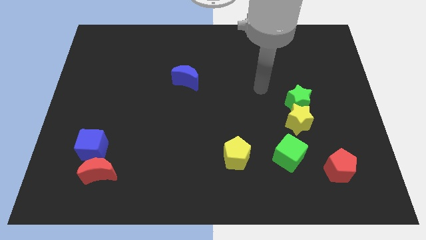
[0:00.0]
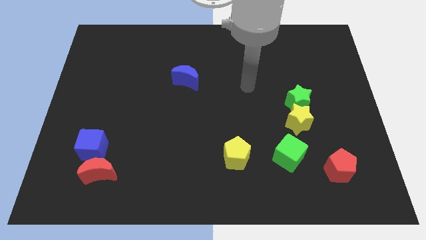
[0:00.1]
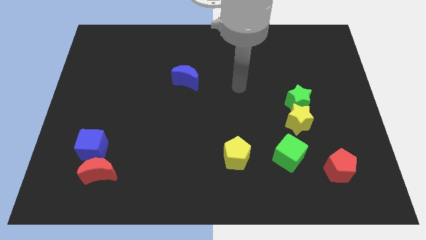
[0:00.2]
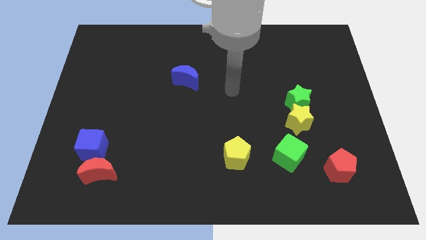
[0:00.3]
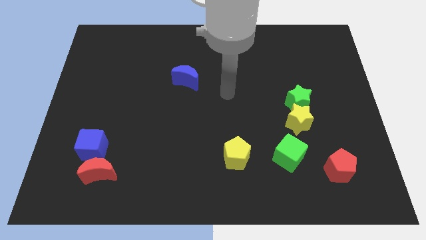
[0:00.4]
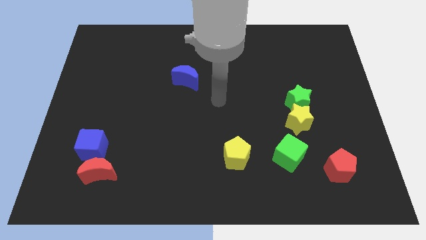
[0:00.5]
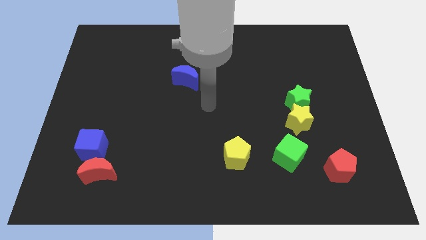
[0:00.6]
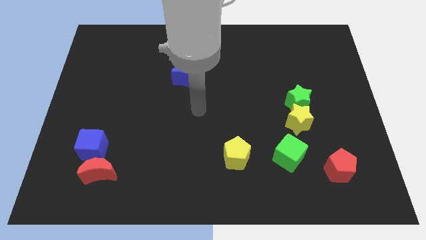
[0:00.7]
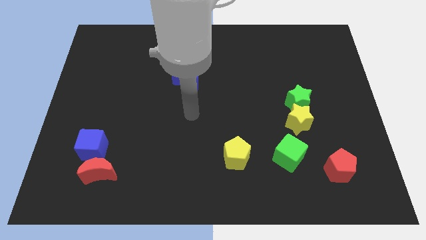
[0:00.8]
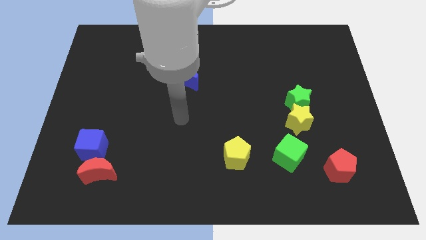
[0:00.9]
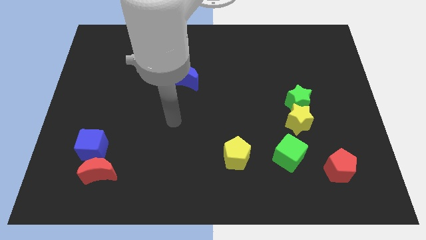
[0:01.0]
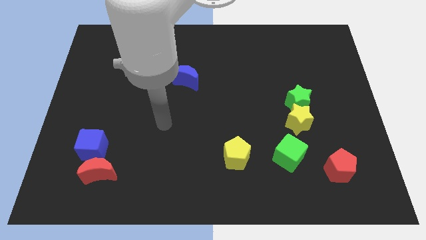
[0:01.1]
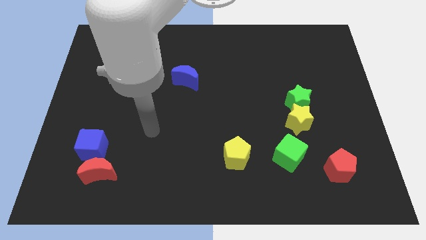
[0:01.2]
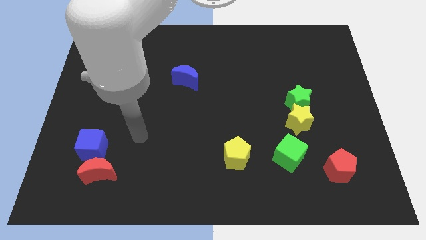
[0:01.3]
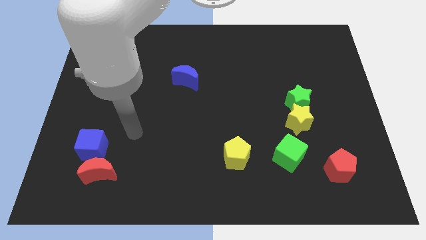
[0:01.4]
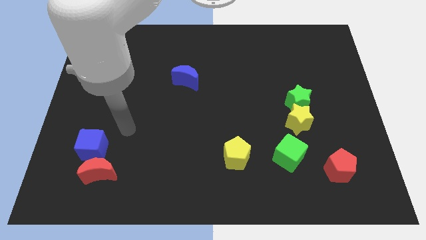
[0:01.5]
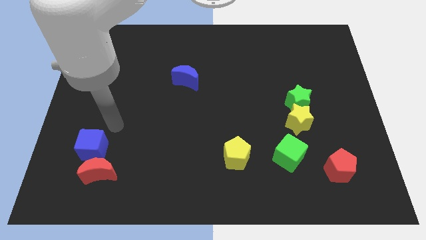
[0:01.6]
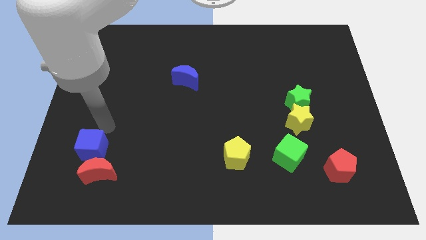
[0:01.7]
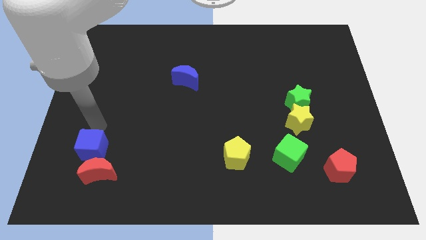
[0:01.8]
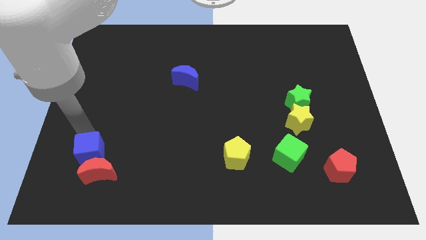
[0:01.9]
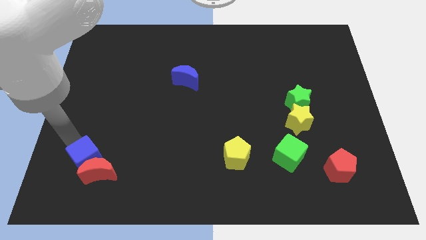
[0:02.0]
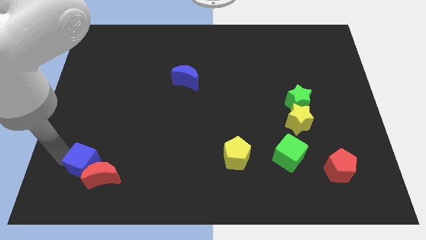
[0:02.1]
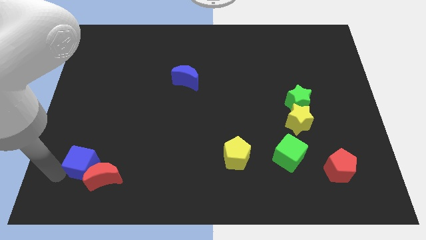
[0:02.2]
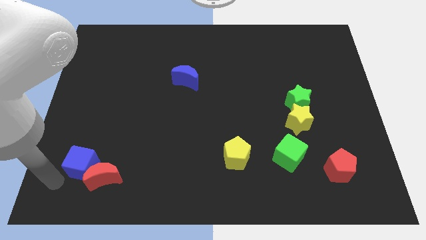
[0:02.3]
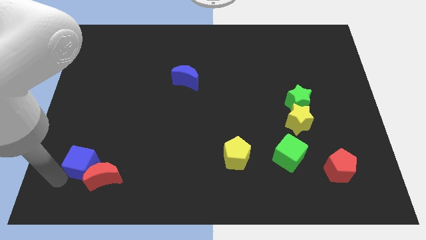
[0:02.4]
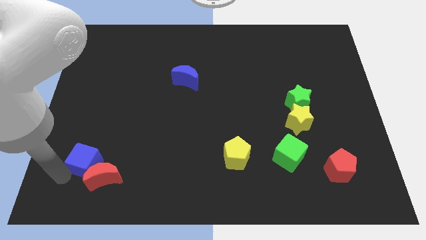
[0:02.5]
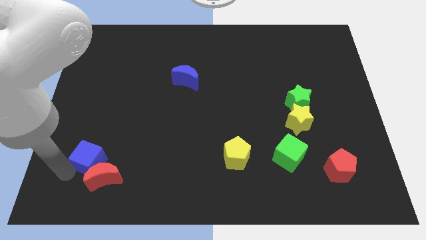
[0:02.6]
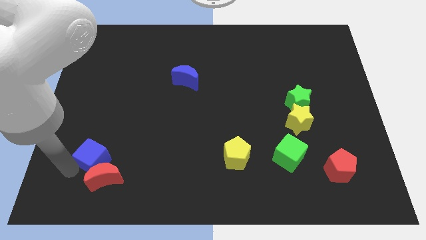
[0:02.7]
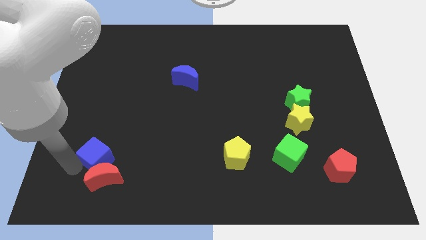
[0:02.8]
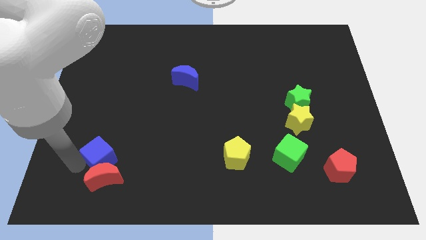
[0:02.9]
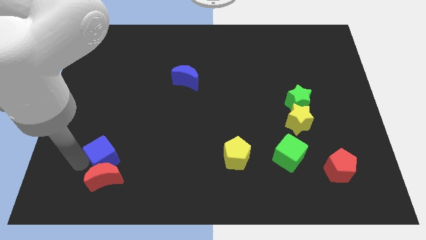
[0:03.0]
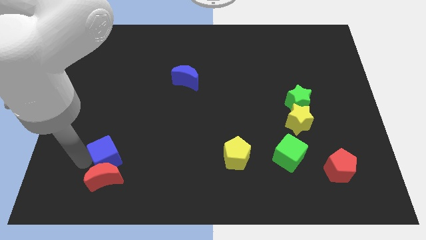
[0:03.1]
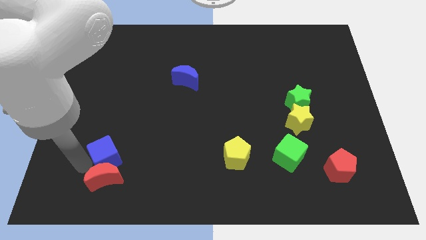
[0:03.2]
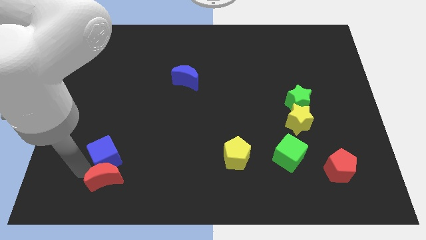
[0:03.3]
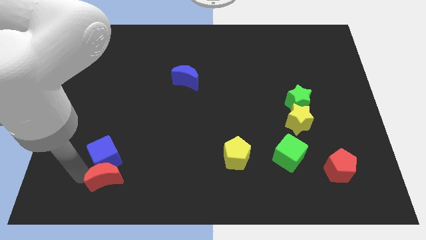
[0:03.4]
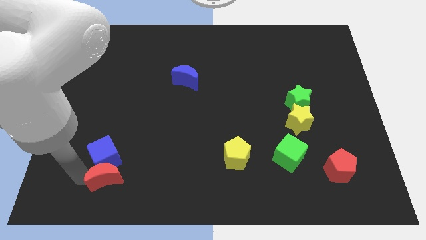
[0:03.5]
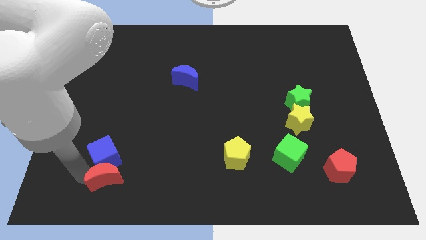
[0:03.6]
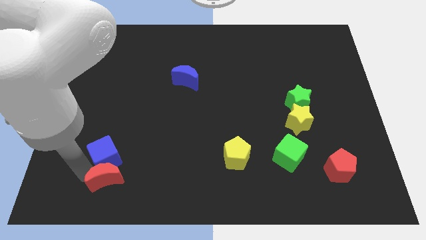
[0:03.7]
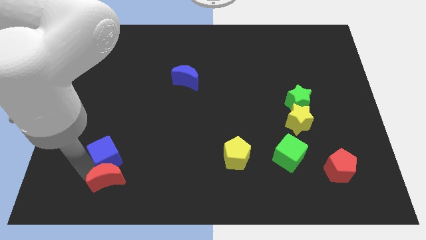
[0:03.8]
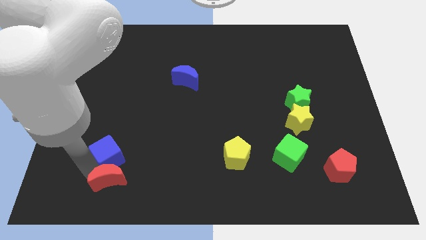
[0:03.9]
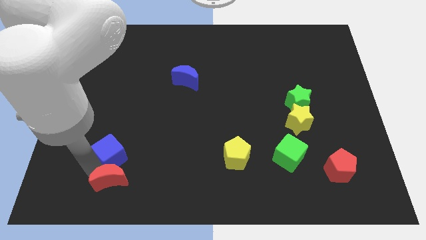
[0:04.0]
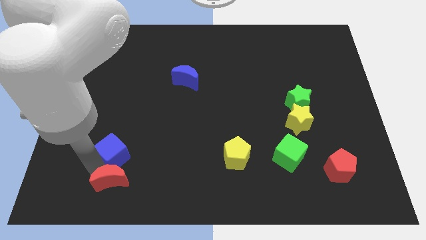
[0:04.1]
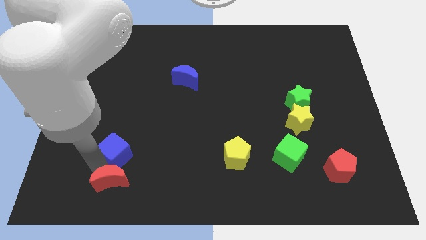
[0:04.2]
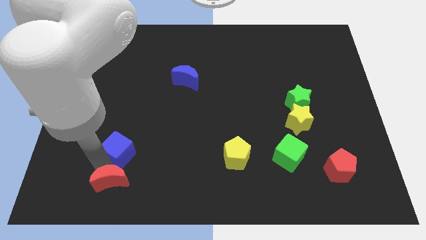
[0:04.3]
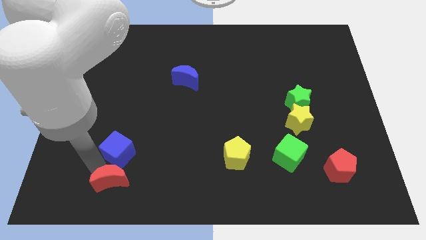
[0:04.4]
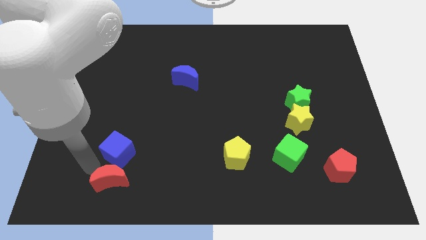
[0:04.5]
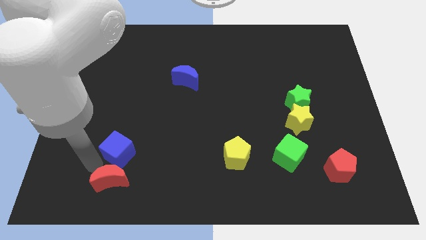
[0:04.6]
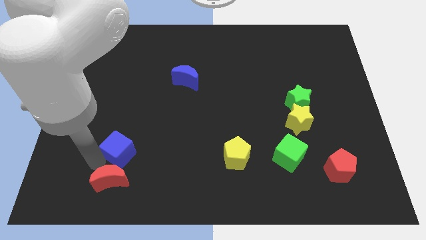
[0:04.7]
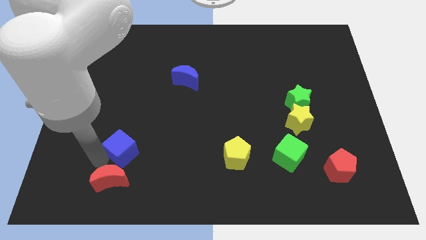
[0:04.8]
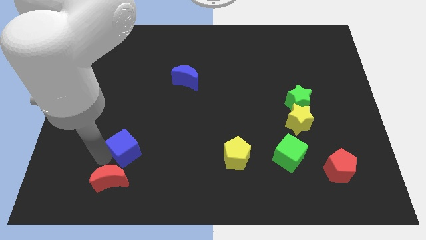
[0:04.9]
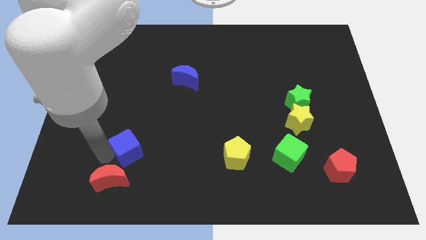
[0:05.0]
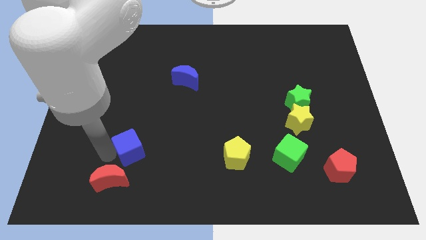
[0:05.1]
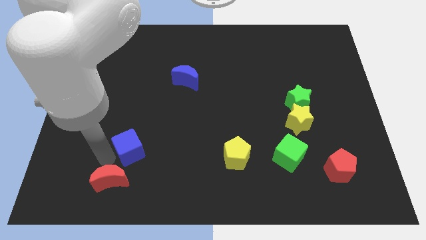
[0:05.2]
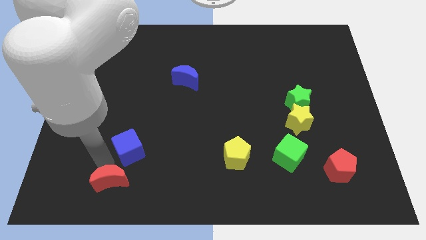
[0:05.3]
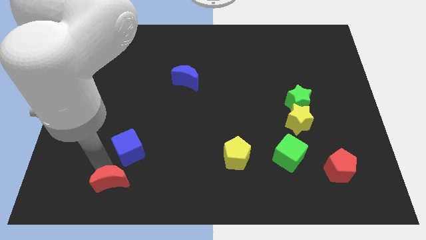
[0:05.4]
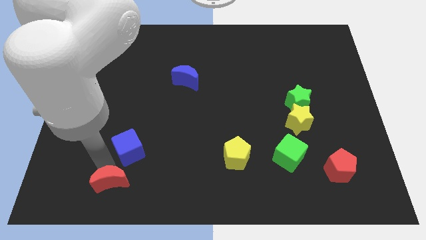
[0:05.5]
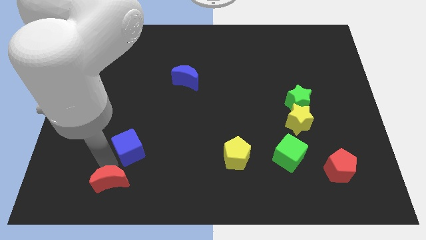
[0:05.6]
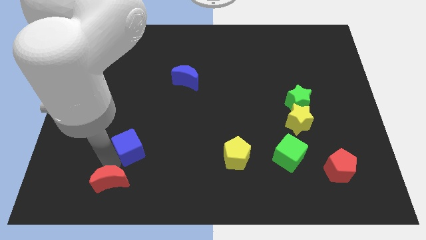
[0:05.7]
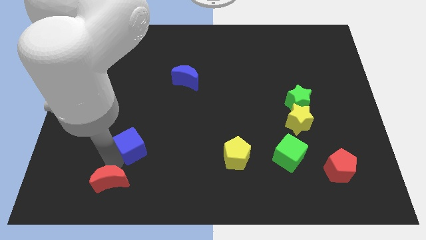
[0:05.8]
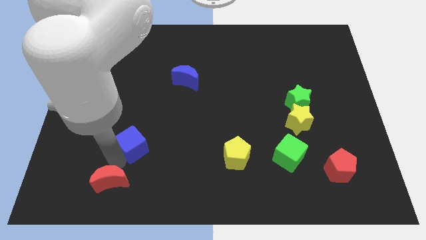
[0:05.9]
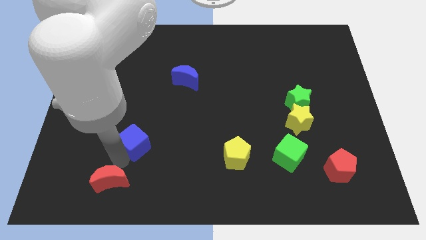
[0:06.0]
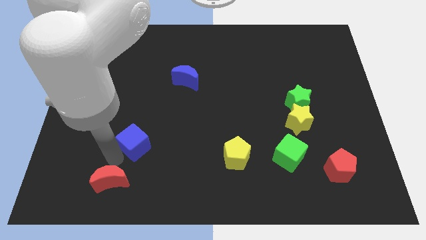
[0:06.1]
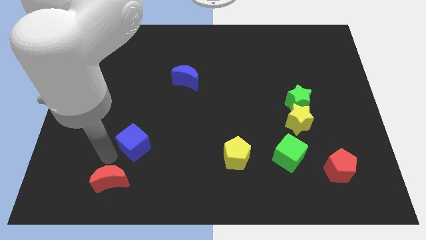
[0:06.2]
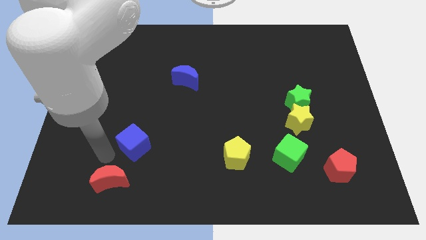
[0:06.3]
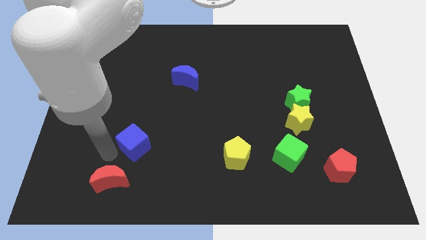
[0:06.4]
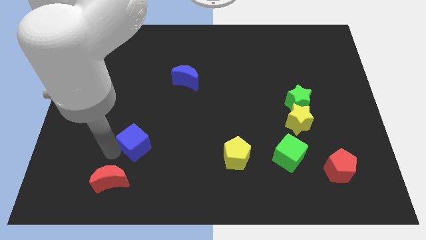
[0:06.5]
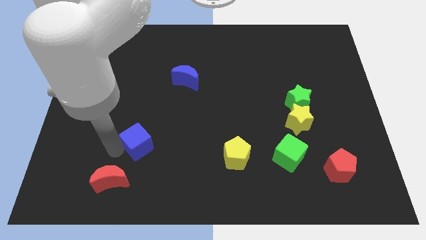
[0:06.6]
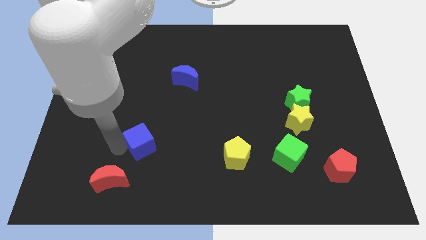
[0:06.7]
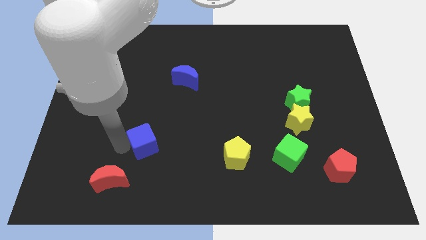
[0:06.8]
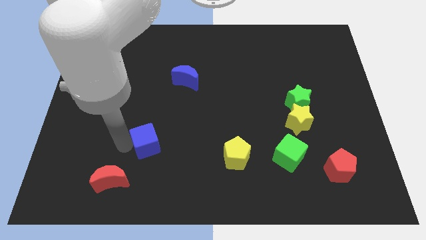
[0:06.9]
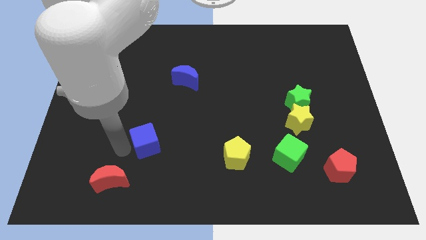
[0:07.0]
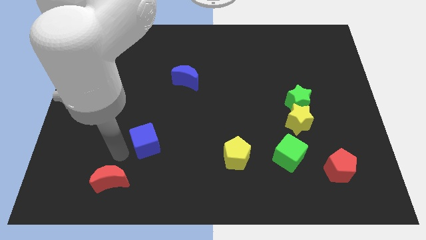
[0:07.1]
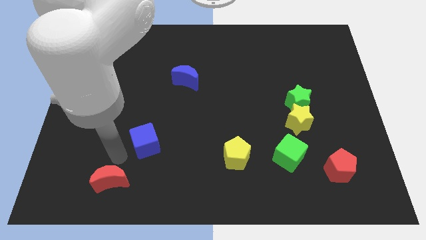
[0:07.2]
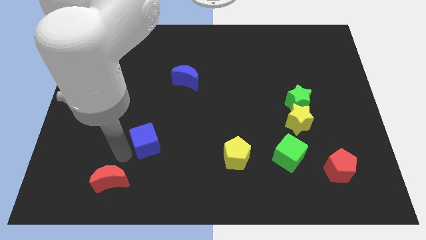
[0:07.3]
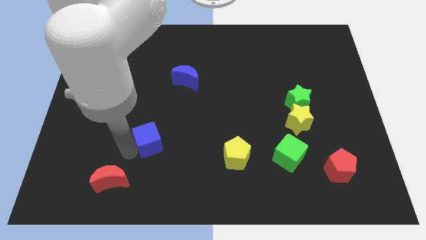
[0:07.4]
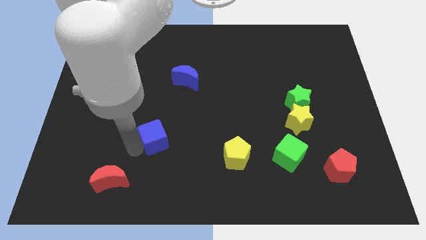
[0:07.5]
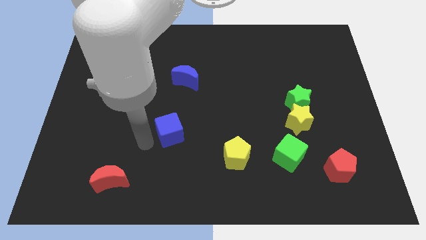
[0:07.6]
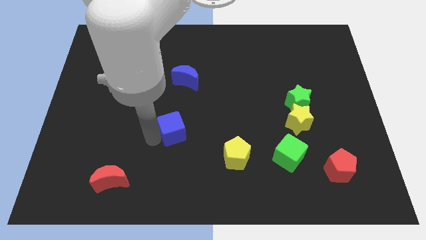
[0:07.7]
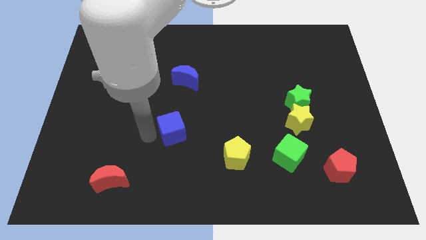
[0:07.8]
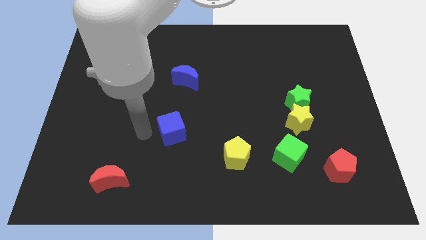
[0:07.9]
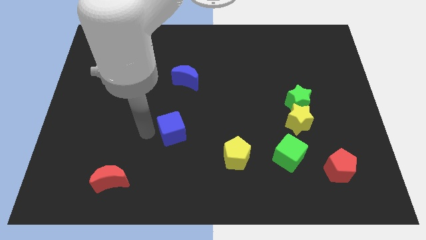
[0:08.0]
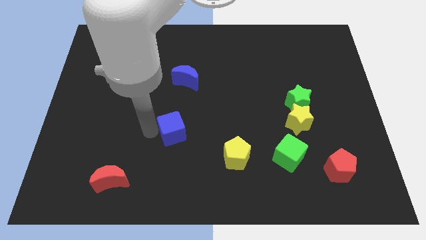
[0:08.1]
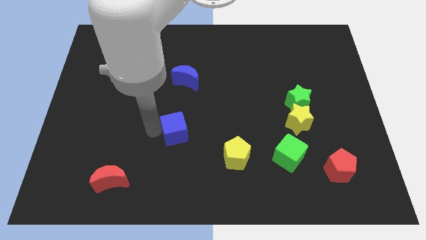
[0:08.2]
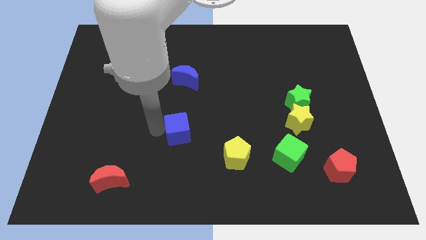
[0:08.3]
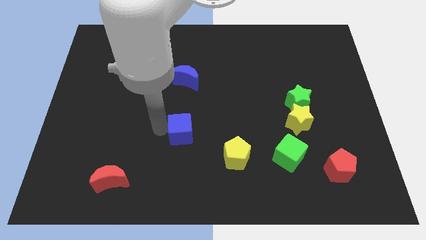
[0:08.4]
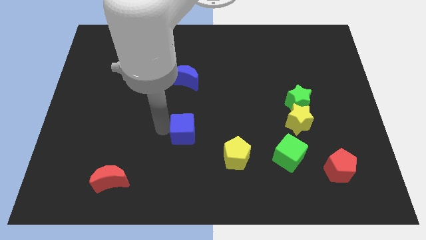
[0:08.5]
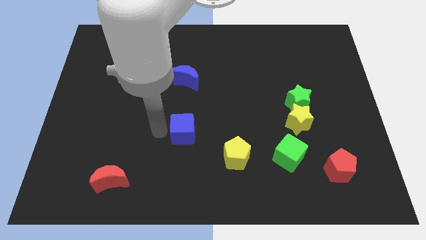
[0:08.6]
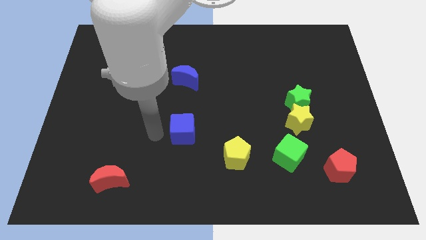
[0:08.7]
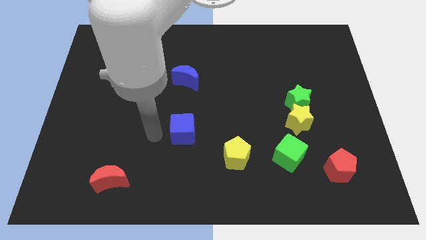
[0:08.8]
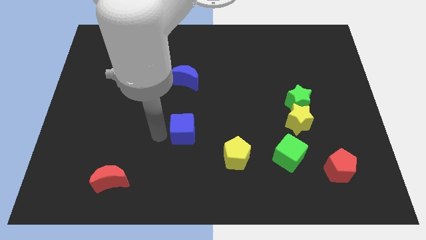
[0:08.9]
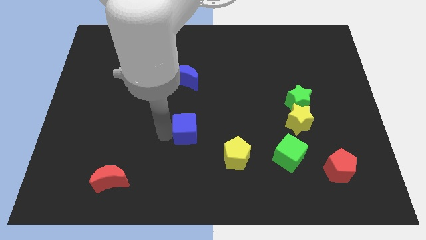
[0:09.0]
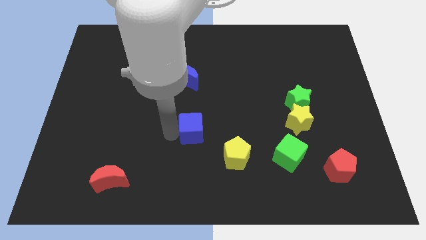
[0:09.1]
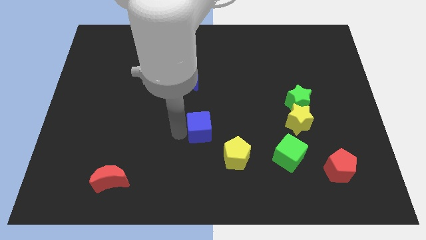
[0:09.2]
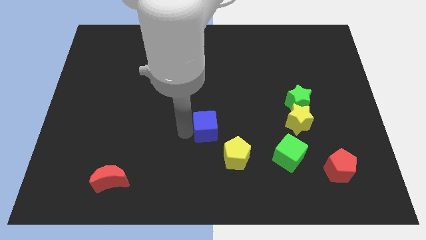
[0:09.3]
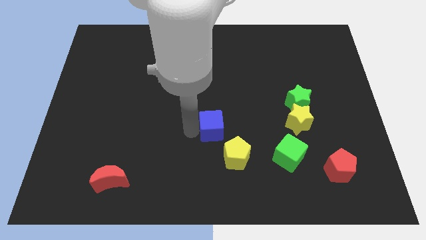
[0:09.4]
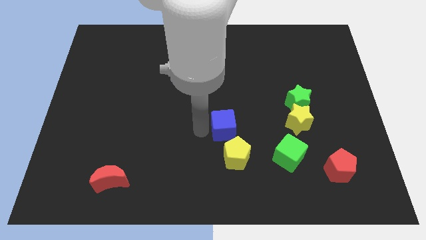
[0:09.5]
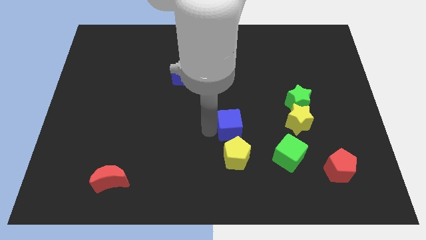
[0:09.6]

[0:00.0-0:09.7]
push the blue cube to the left of the yellow star
